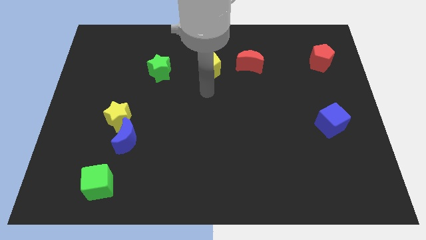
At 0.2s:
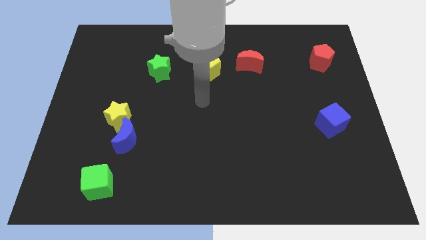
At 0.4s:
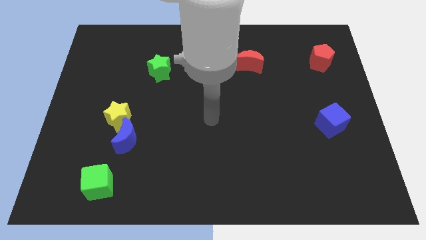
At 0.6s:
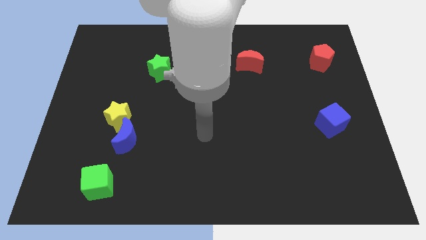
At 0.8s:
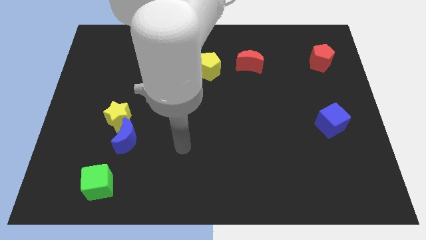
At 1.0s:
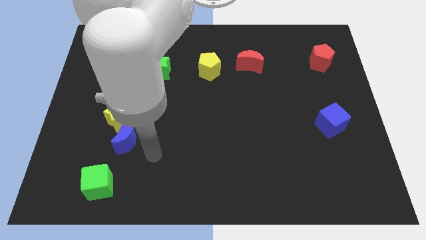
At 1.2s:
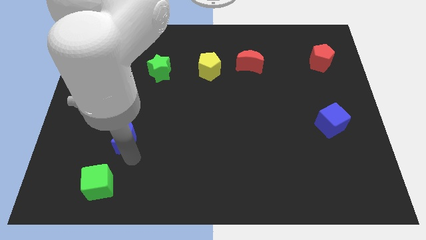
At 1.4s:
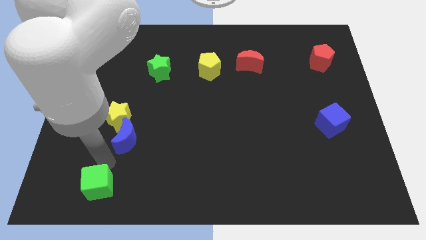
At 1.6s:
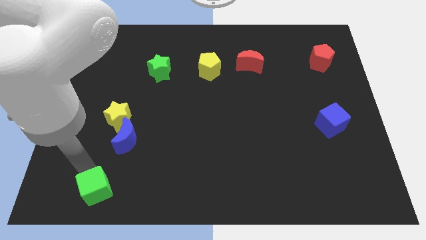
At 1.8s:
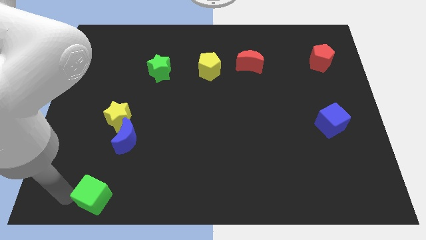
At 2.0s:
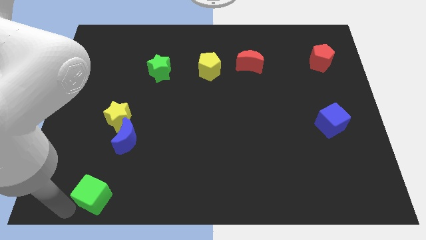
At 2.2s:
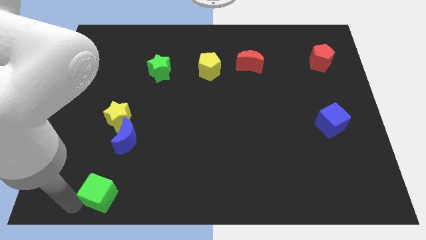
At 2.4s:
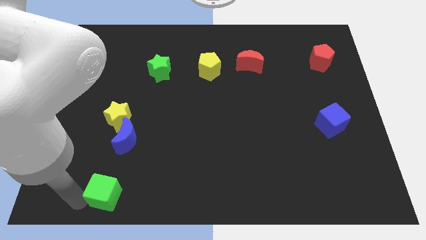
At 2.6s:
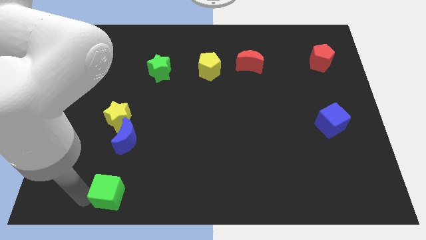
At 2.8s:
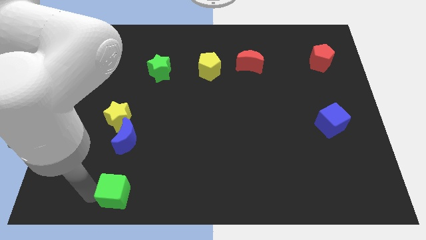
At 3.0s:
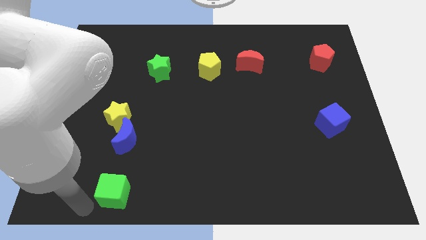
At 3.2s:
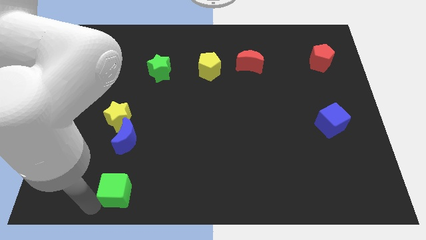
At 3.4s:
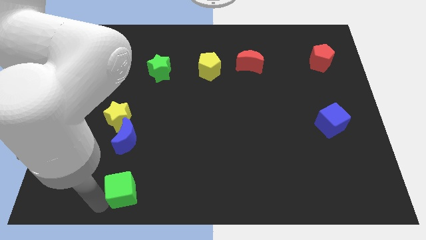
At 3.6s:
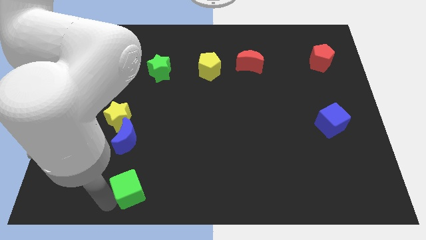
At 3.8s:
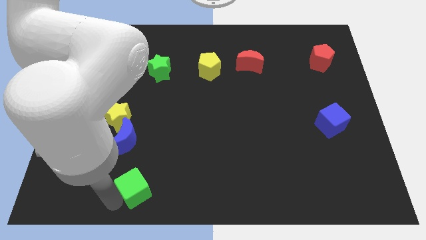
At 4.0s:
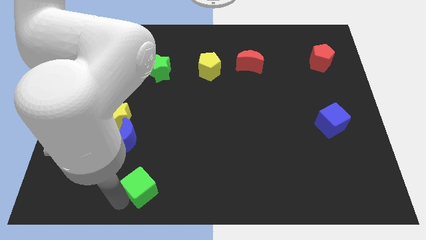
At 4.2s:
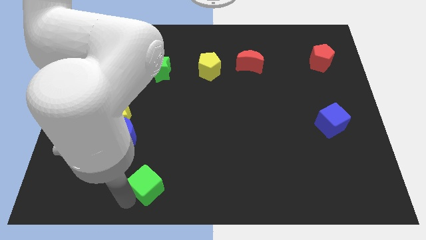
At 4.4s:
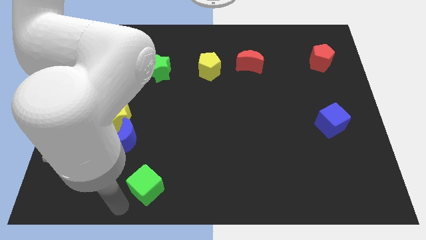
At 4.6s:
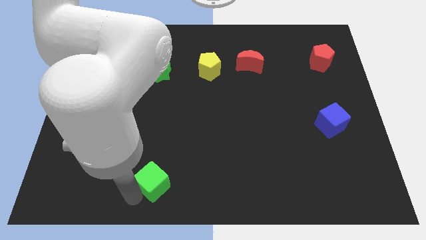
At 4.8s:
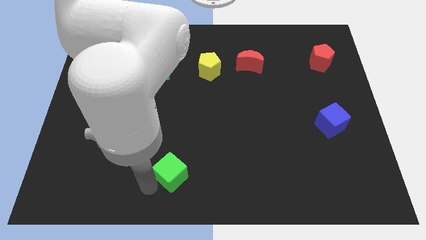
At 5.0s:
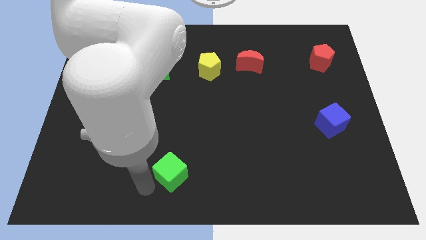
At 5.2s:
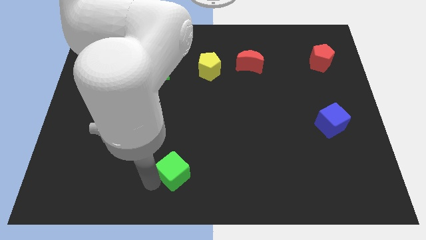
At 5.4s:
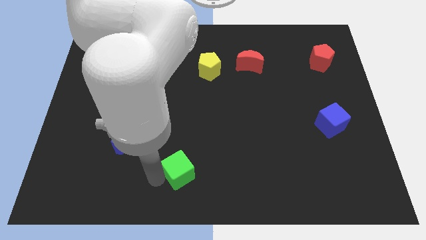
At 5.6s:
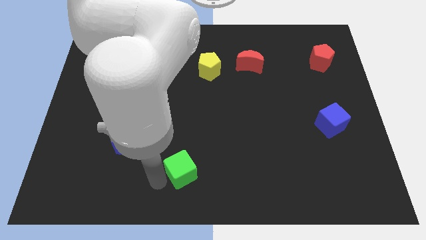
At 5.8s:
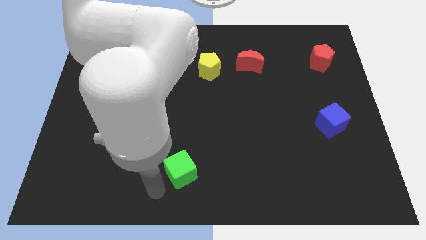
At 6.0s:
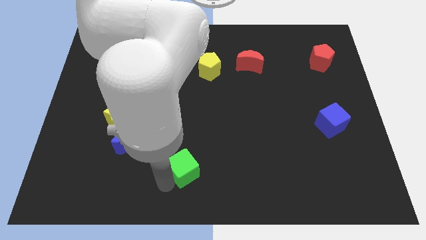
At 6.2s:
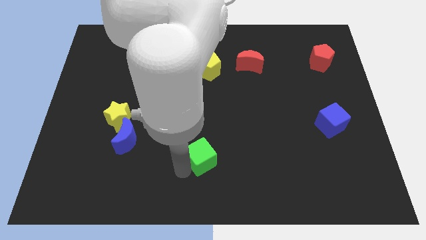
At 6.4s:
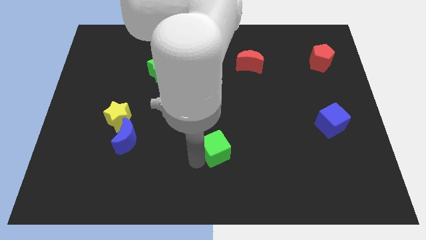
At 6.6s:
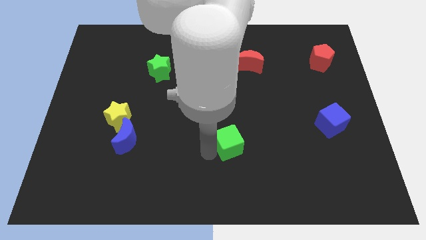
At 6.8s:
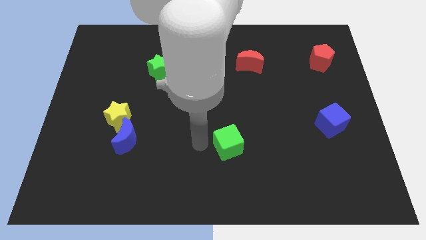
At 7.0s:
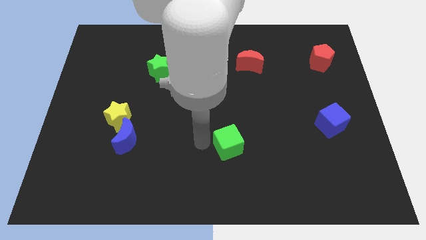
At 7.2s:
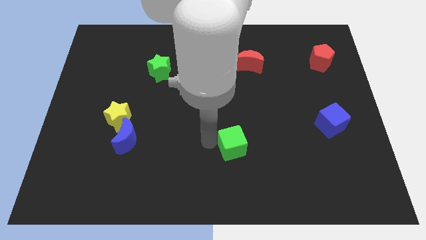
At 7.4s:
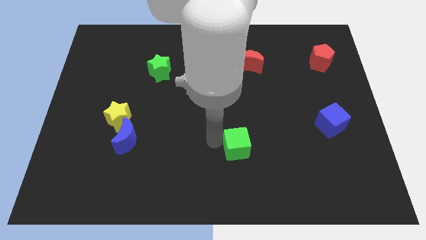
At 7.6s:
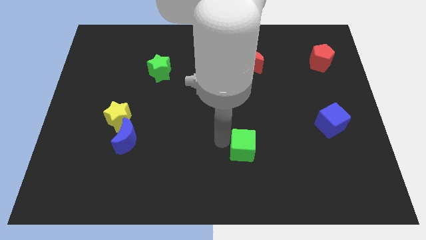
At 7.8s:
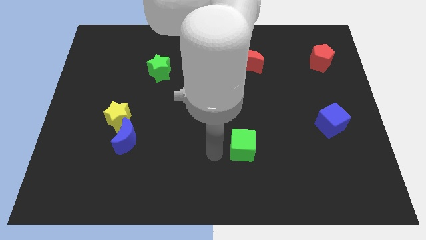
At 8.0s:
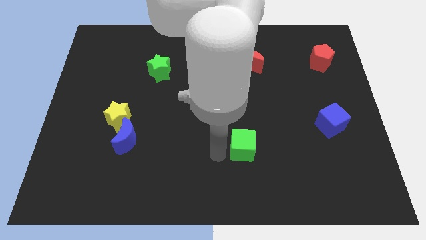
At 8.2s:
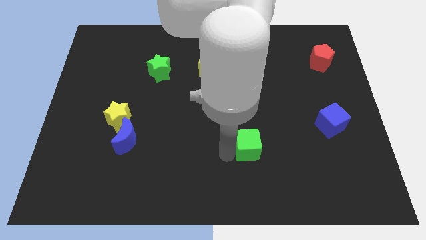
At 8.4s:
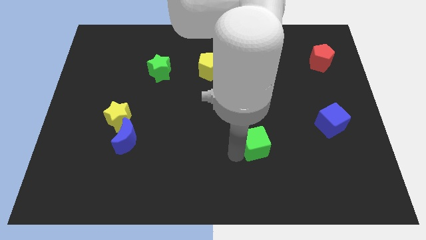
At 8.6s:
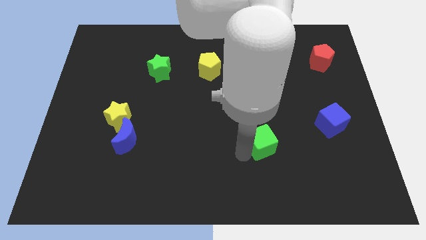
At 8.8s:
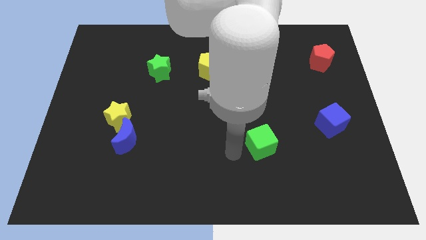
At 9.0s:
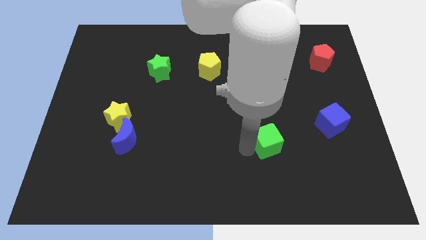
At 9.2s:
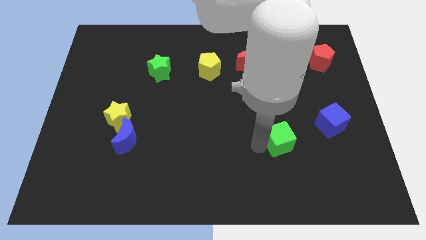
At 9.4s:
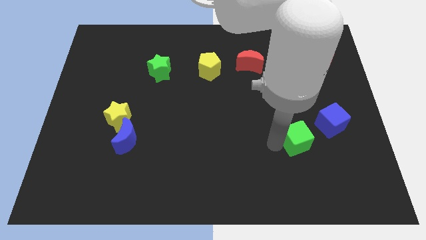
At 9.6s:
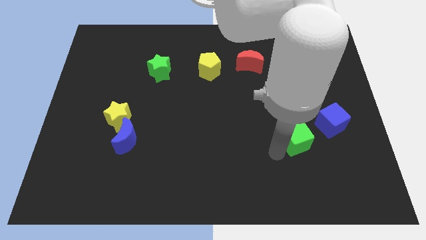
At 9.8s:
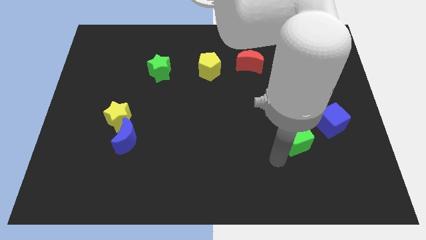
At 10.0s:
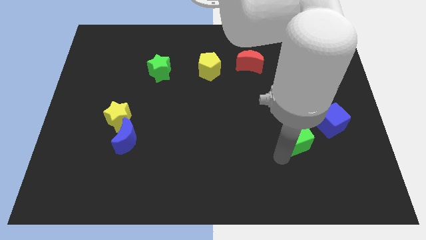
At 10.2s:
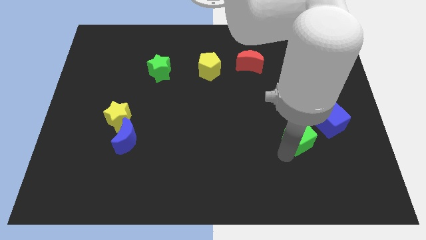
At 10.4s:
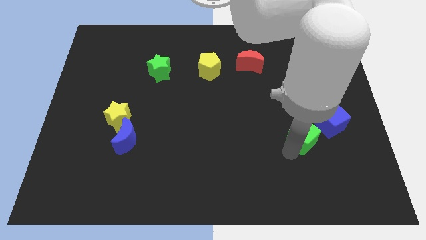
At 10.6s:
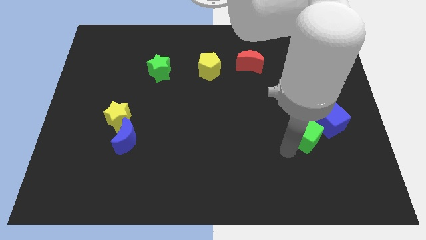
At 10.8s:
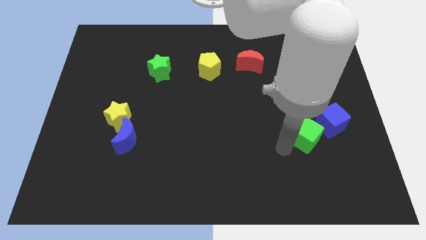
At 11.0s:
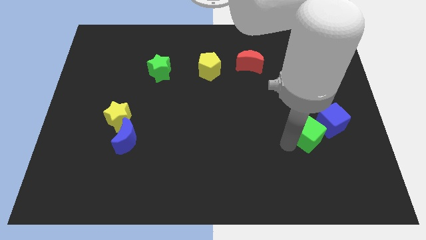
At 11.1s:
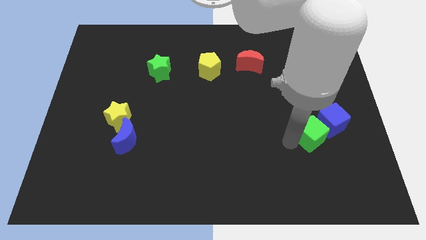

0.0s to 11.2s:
move the green cube to the blue cube

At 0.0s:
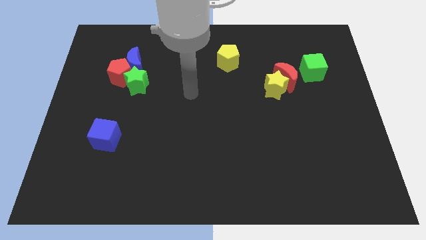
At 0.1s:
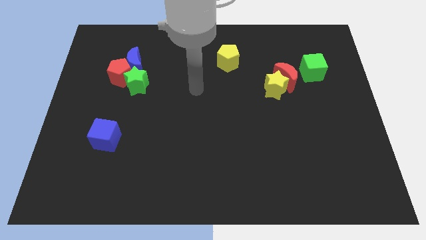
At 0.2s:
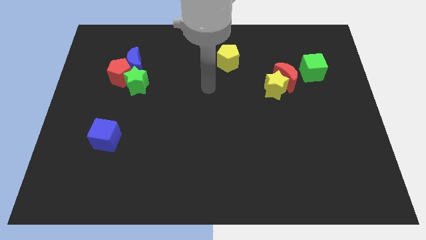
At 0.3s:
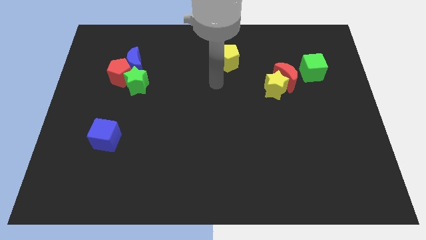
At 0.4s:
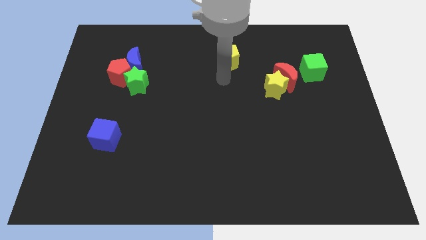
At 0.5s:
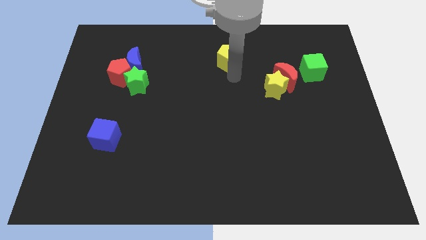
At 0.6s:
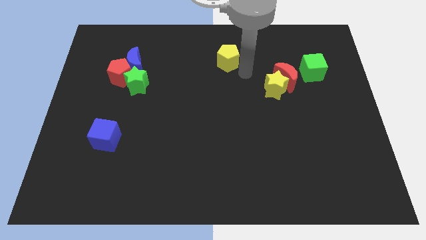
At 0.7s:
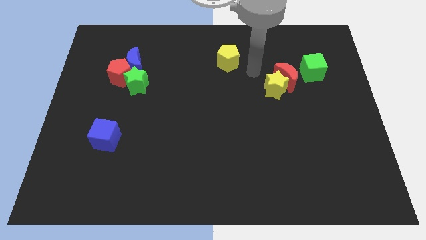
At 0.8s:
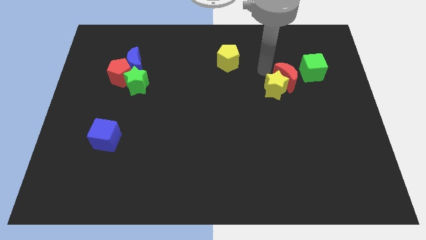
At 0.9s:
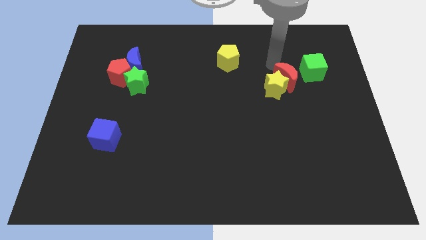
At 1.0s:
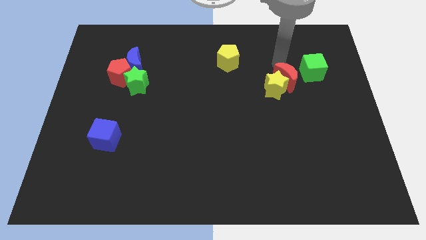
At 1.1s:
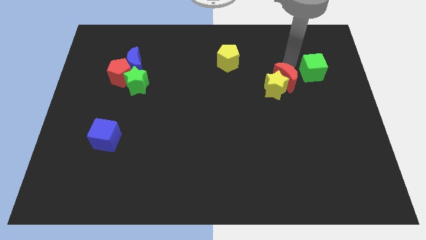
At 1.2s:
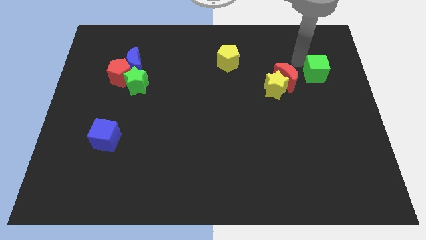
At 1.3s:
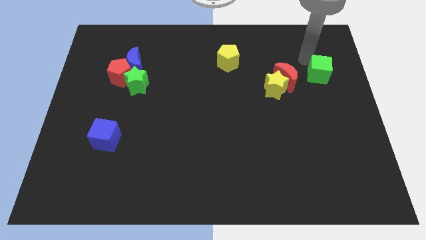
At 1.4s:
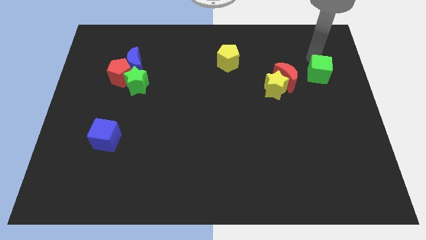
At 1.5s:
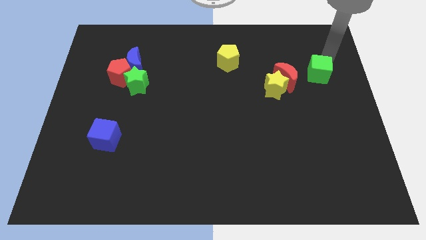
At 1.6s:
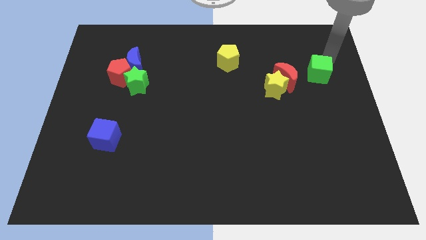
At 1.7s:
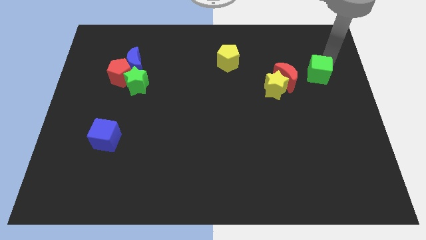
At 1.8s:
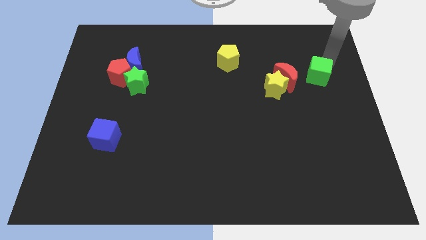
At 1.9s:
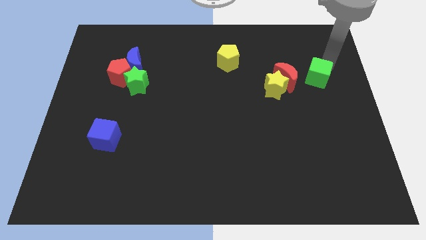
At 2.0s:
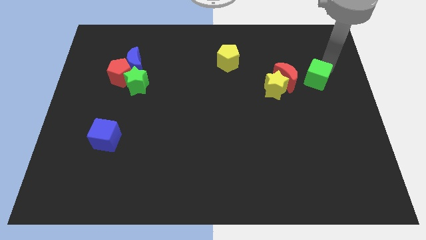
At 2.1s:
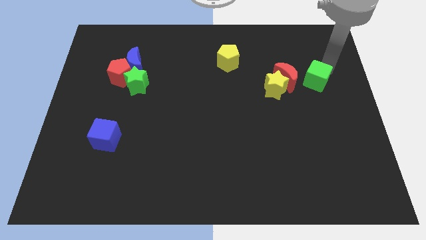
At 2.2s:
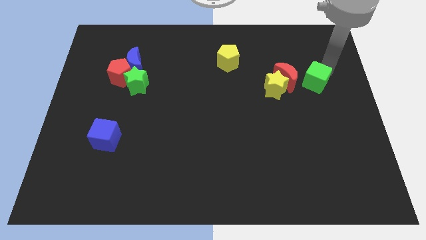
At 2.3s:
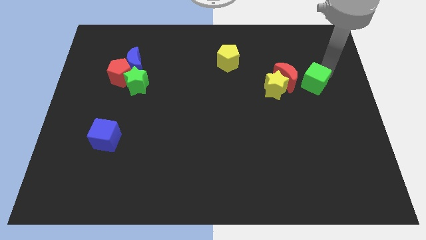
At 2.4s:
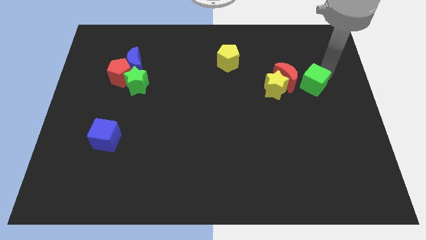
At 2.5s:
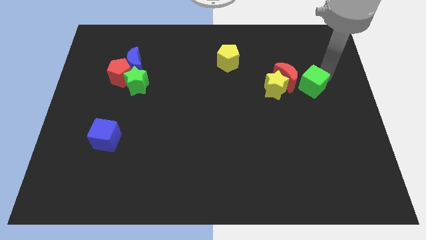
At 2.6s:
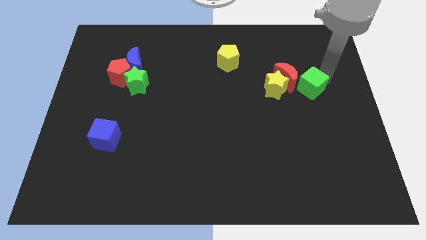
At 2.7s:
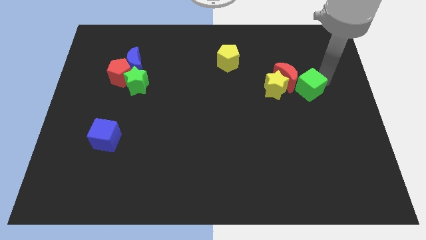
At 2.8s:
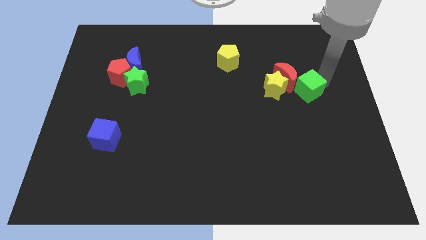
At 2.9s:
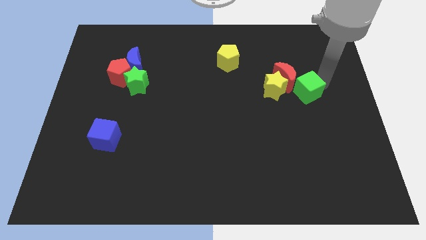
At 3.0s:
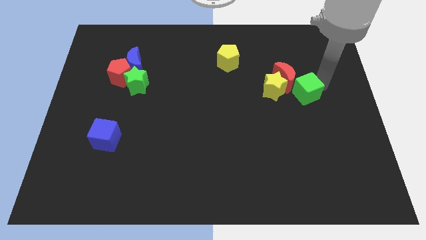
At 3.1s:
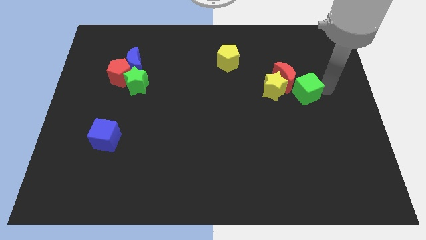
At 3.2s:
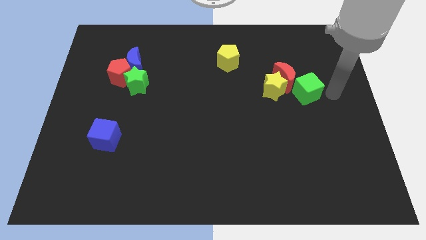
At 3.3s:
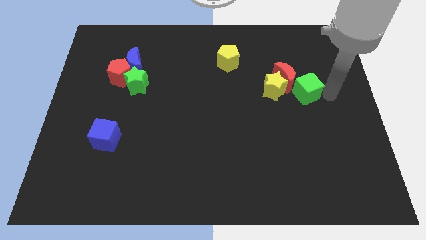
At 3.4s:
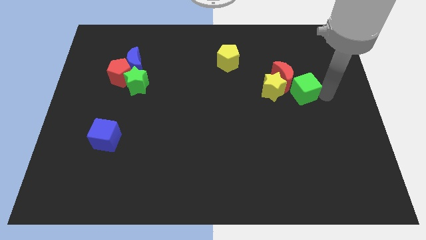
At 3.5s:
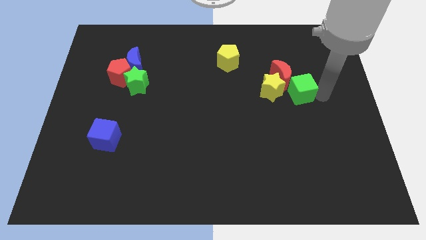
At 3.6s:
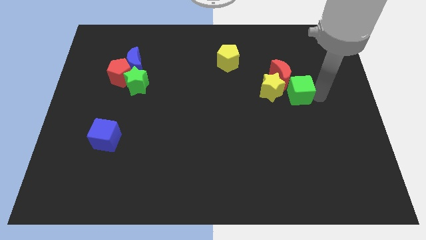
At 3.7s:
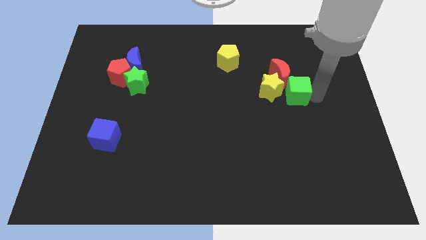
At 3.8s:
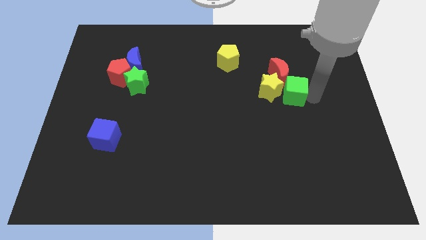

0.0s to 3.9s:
put the green cube to the yellow star
